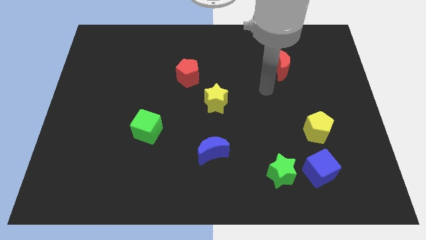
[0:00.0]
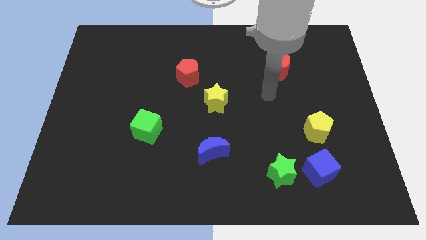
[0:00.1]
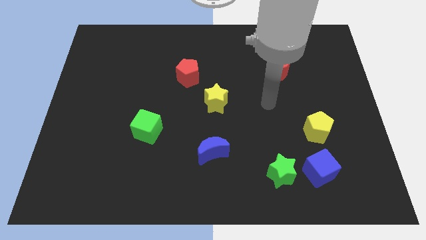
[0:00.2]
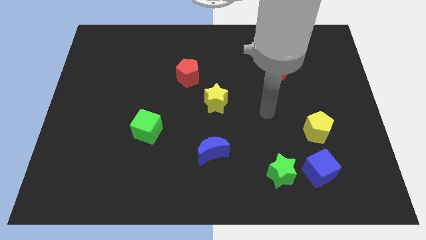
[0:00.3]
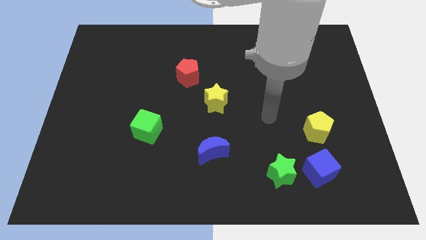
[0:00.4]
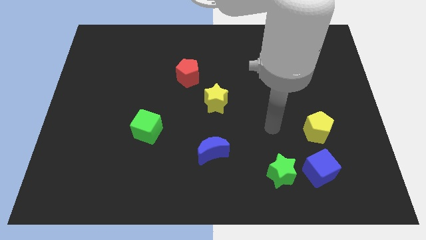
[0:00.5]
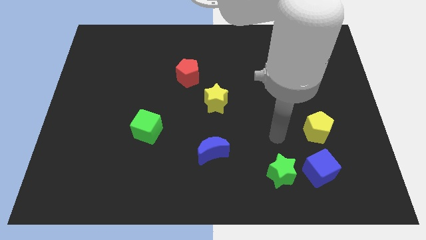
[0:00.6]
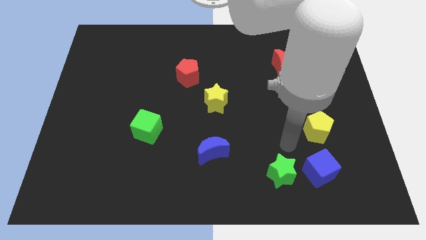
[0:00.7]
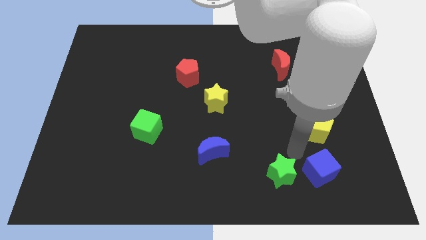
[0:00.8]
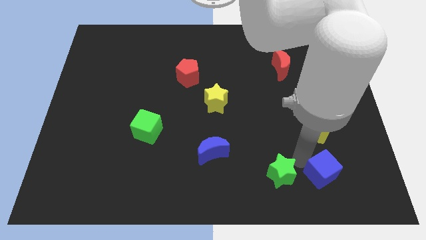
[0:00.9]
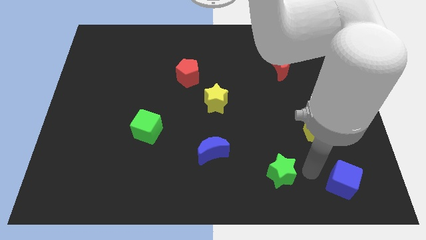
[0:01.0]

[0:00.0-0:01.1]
move the green star away from the blue cube

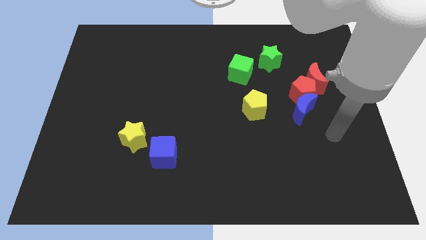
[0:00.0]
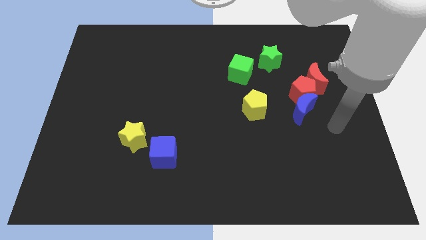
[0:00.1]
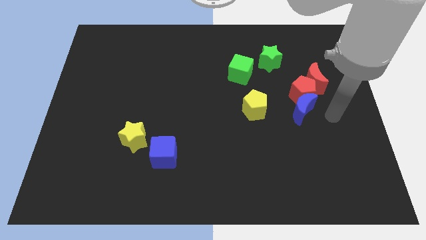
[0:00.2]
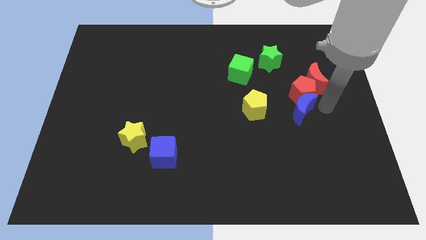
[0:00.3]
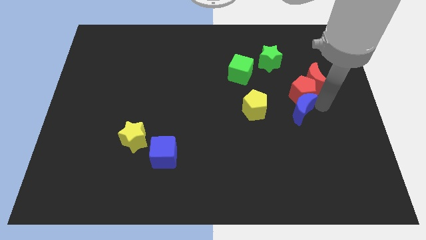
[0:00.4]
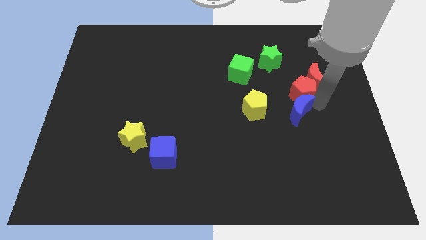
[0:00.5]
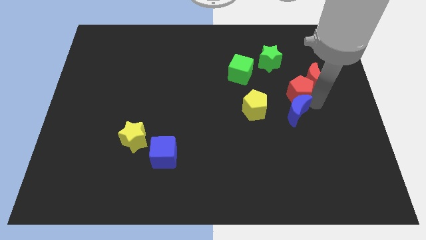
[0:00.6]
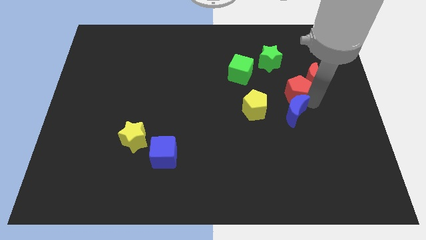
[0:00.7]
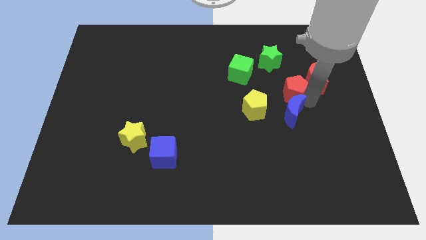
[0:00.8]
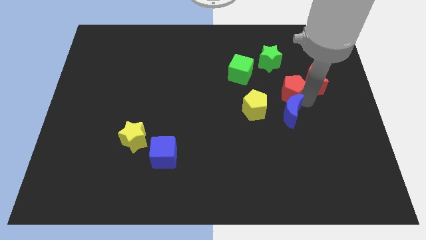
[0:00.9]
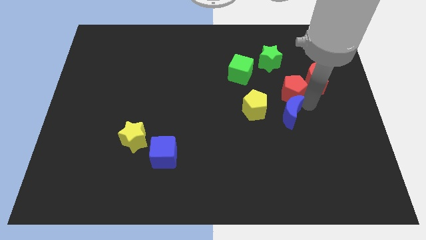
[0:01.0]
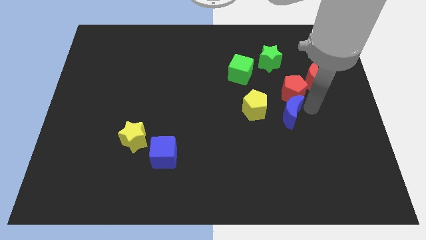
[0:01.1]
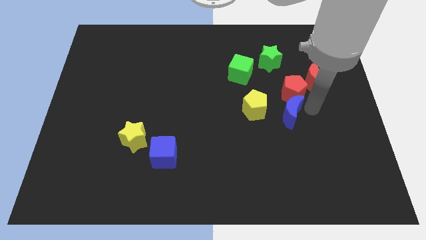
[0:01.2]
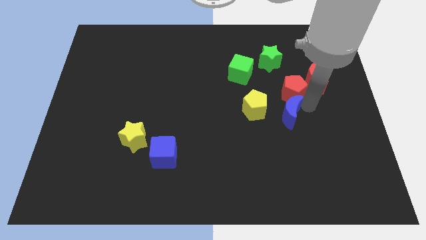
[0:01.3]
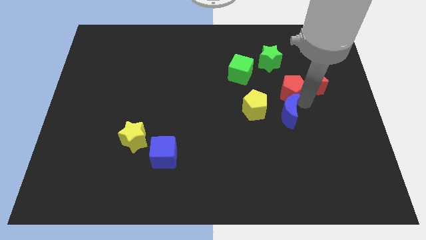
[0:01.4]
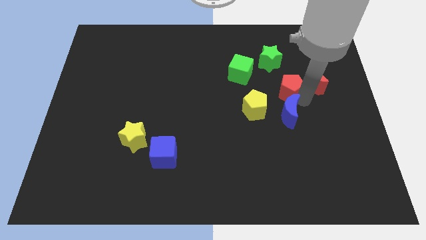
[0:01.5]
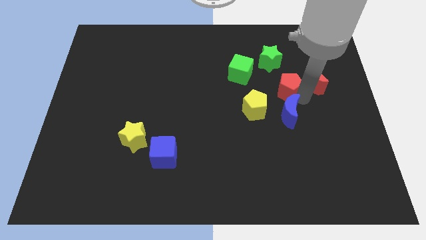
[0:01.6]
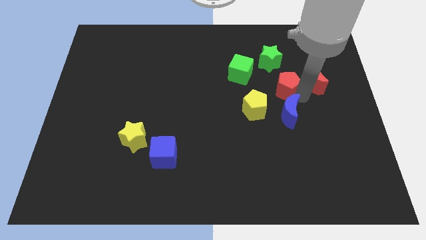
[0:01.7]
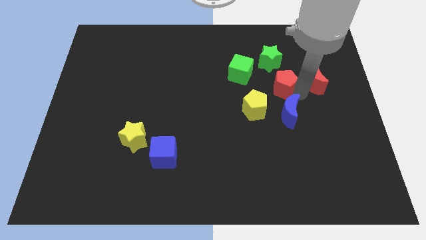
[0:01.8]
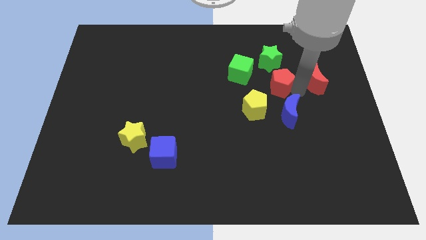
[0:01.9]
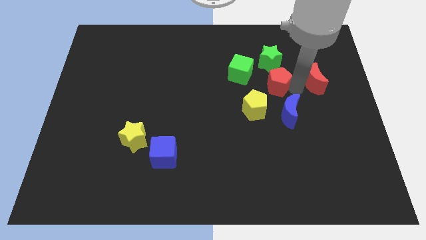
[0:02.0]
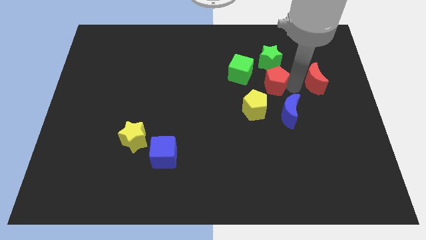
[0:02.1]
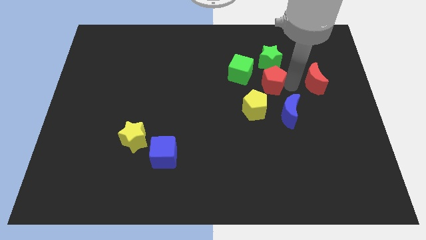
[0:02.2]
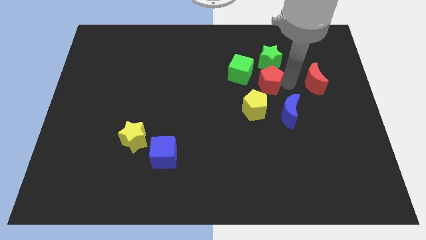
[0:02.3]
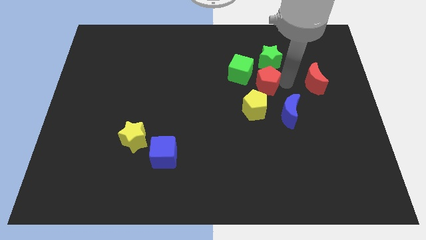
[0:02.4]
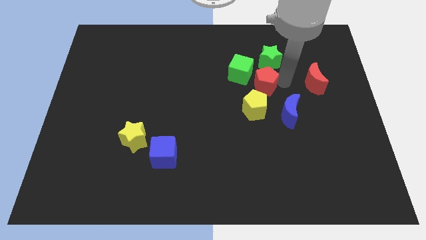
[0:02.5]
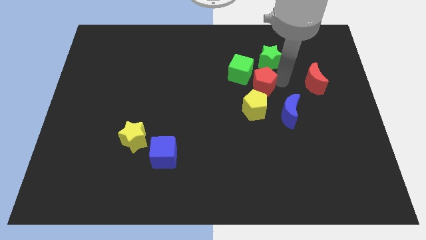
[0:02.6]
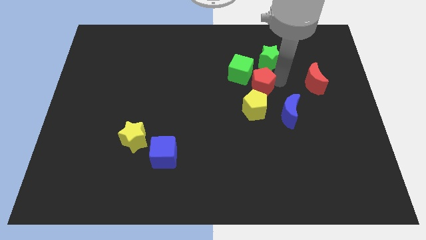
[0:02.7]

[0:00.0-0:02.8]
pull the red pentagon apart from the red moon and blue moon

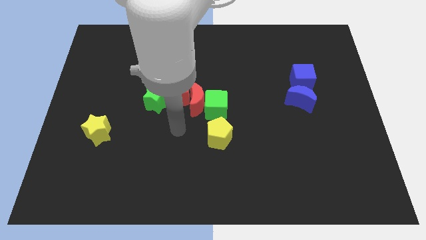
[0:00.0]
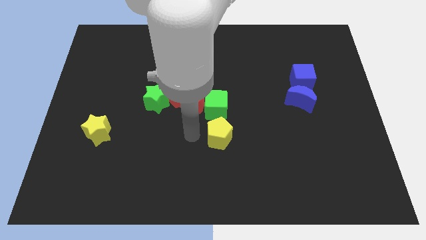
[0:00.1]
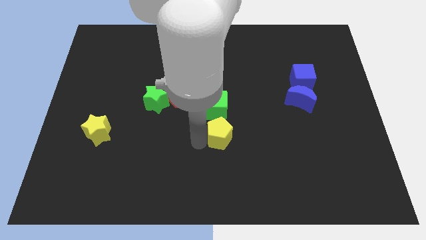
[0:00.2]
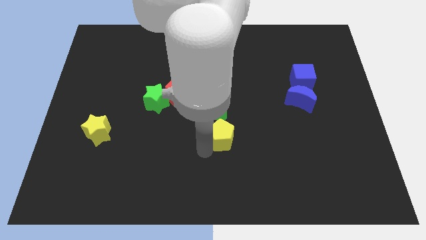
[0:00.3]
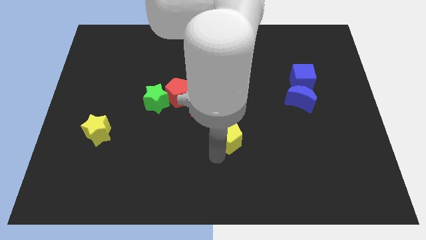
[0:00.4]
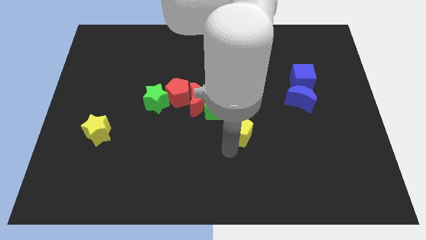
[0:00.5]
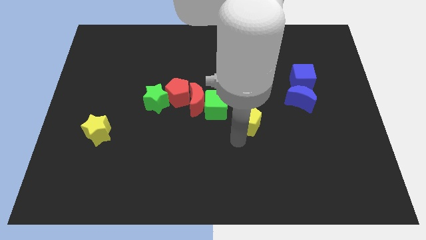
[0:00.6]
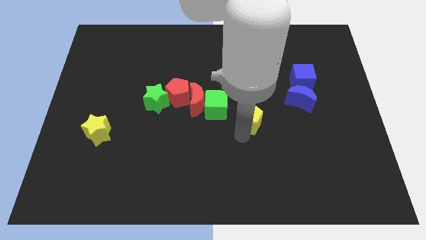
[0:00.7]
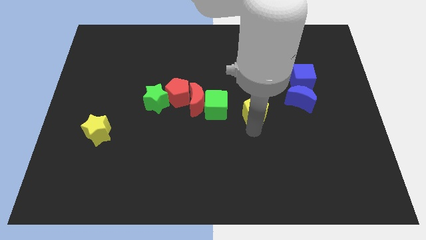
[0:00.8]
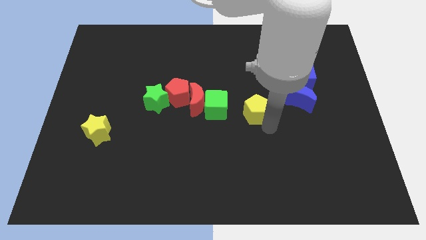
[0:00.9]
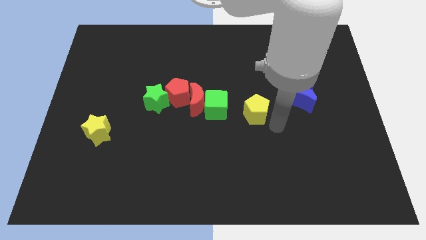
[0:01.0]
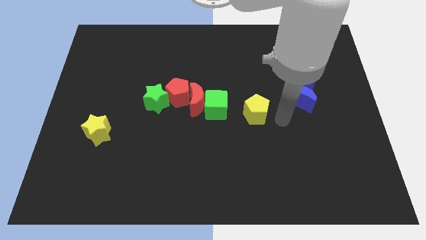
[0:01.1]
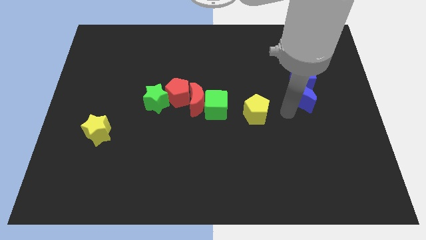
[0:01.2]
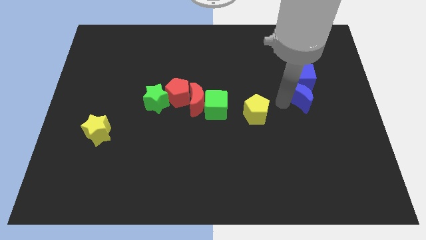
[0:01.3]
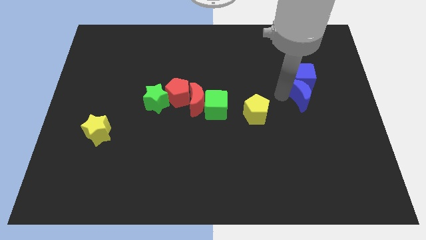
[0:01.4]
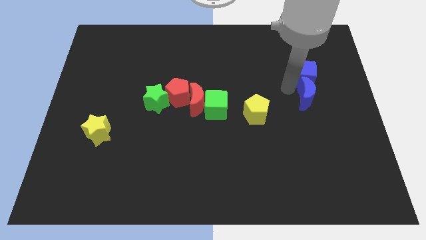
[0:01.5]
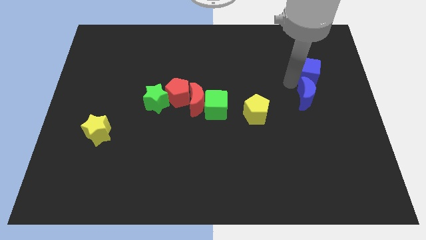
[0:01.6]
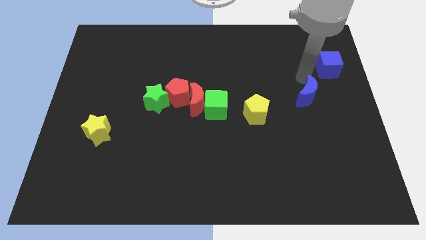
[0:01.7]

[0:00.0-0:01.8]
pull the blue moon apart from the blue cube

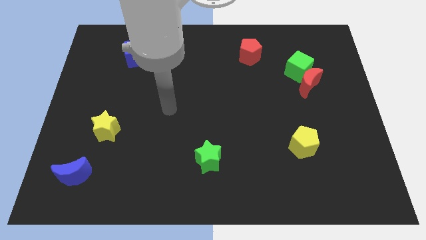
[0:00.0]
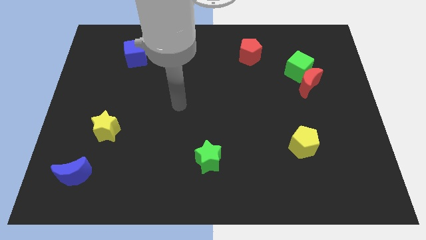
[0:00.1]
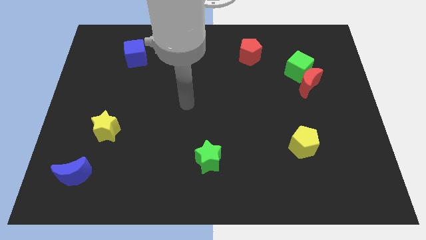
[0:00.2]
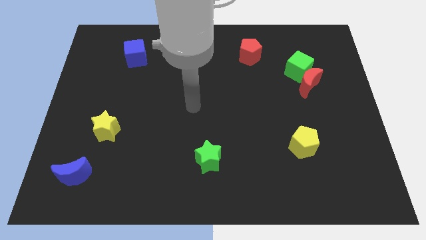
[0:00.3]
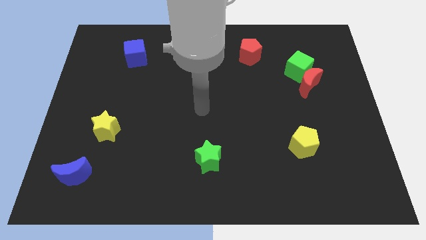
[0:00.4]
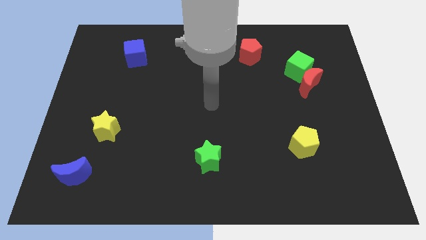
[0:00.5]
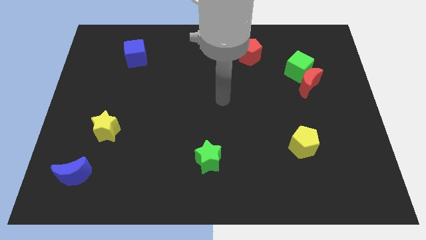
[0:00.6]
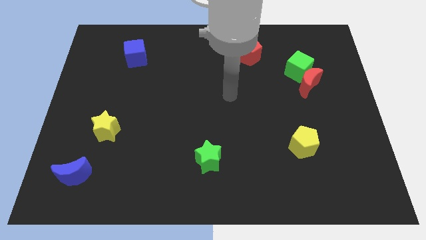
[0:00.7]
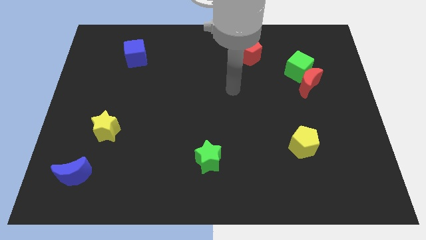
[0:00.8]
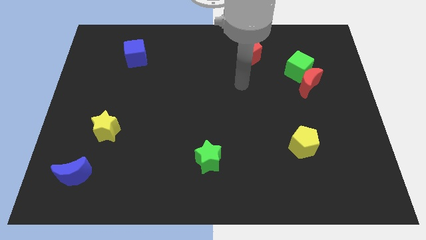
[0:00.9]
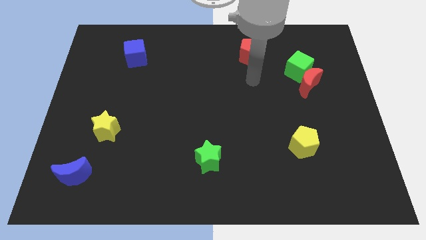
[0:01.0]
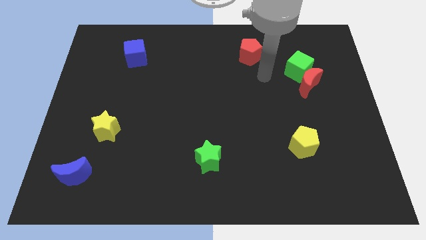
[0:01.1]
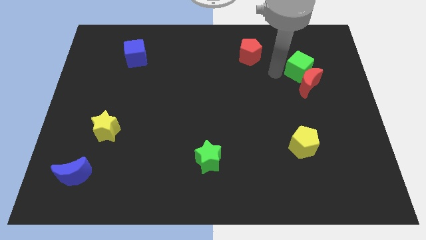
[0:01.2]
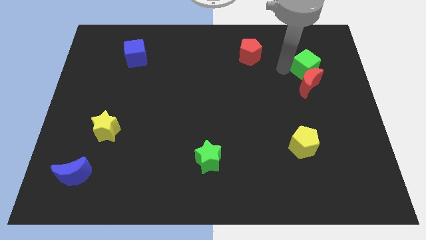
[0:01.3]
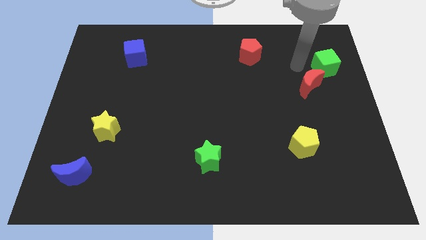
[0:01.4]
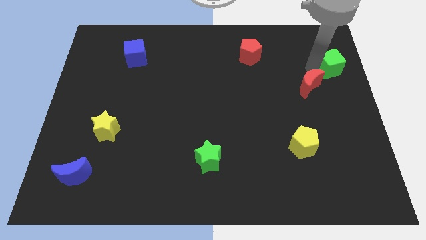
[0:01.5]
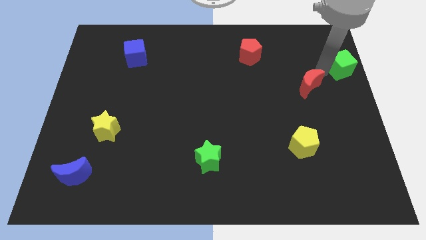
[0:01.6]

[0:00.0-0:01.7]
move the red moon away from the green cube

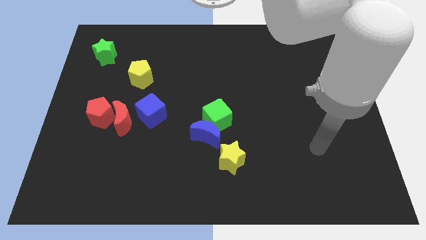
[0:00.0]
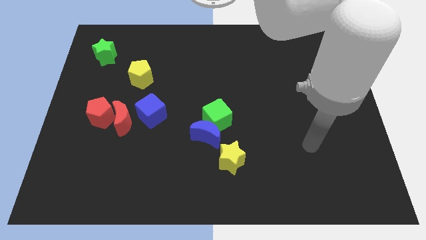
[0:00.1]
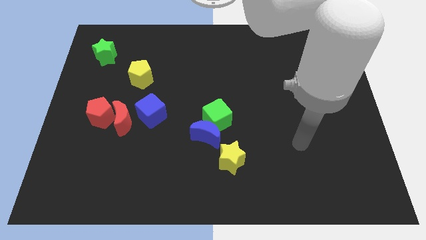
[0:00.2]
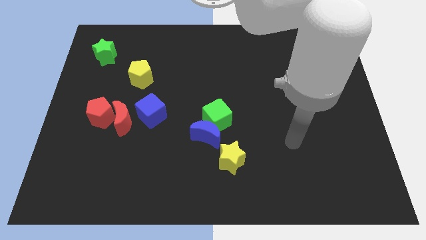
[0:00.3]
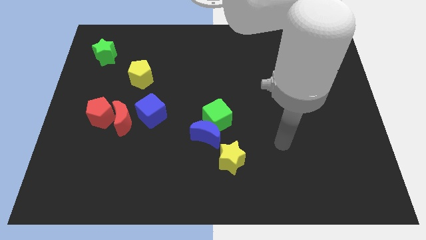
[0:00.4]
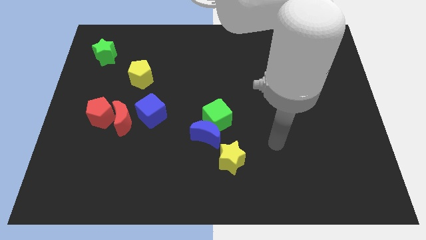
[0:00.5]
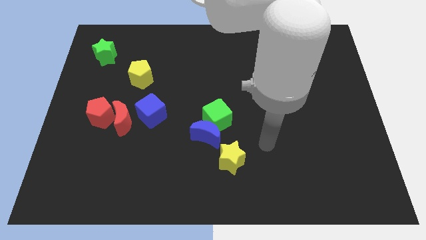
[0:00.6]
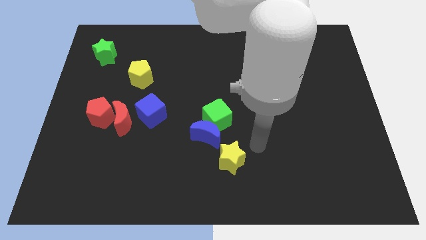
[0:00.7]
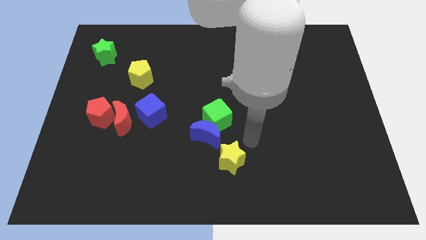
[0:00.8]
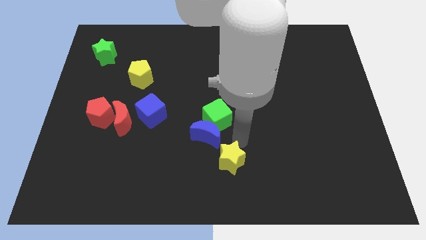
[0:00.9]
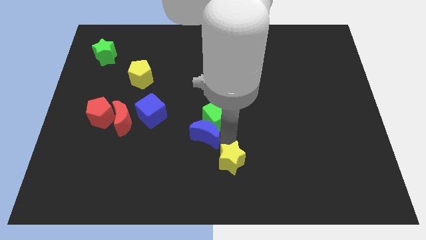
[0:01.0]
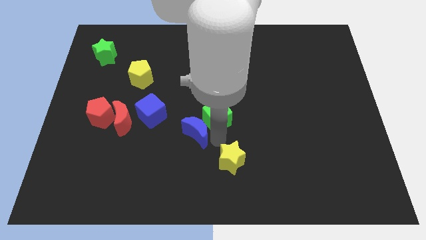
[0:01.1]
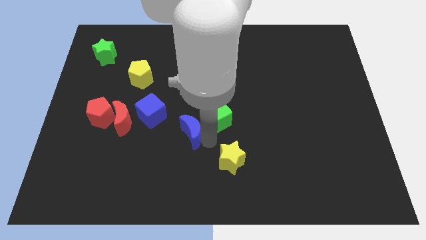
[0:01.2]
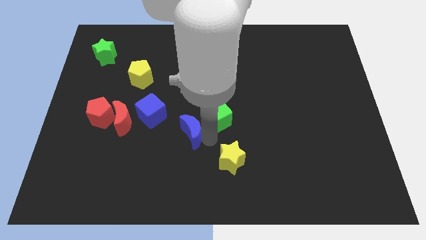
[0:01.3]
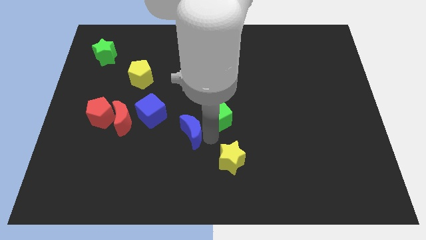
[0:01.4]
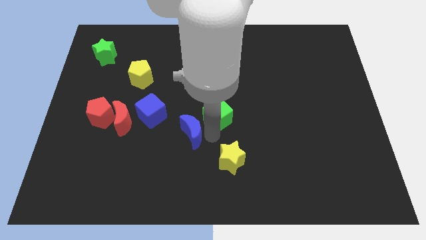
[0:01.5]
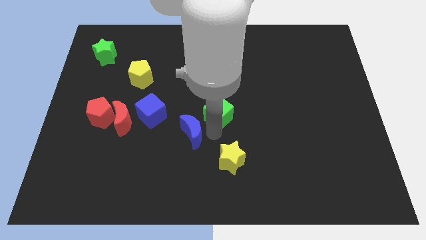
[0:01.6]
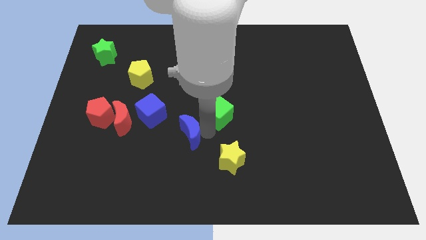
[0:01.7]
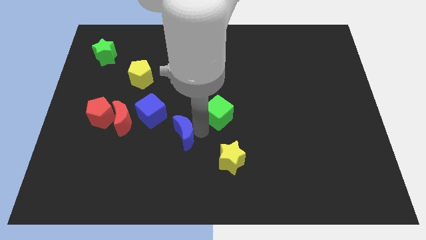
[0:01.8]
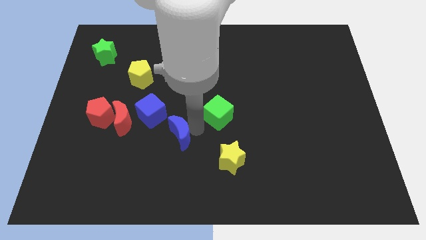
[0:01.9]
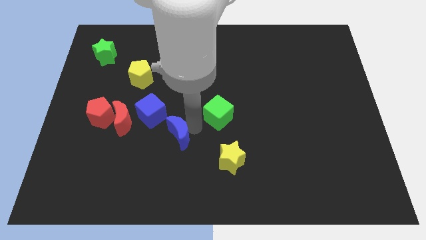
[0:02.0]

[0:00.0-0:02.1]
move the green cube away from the blue moon
